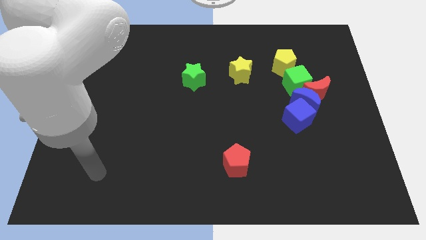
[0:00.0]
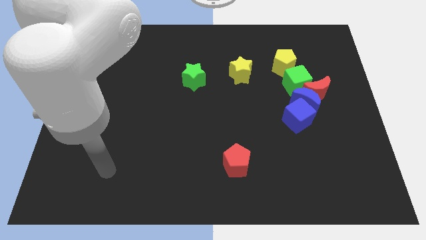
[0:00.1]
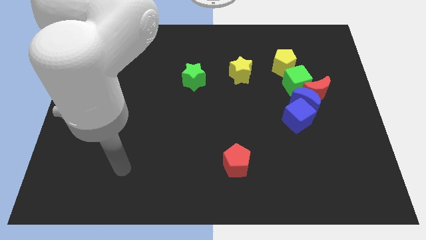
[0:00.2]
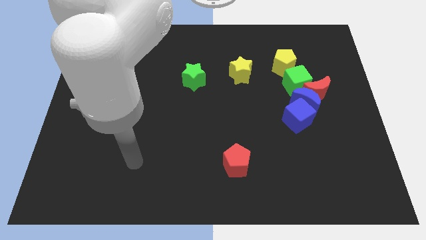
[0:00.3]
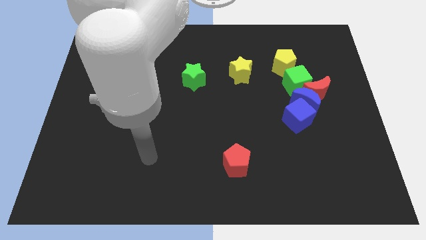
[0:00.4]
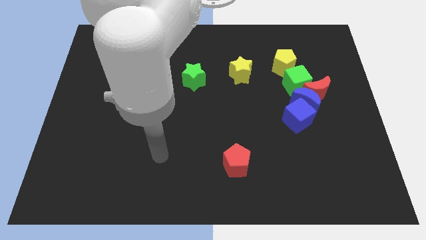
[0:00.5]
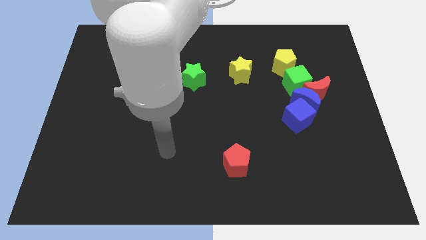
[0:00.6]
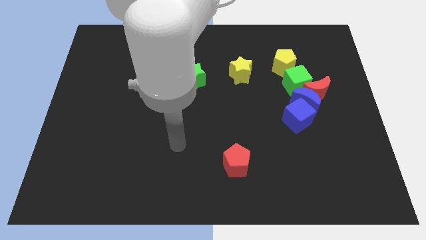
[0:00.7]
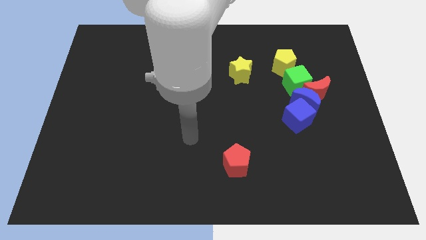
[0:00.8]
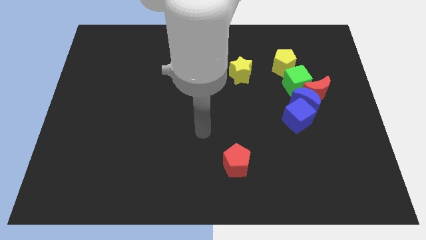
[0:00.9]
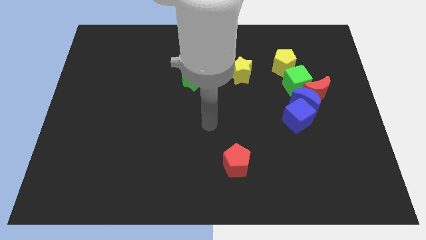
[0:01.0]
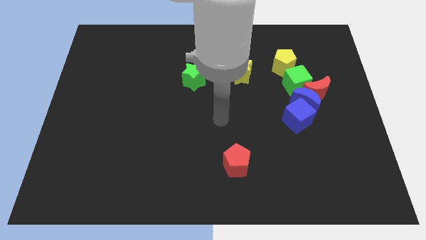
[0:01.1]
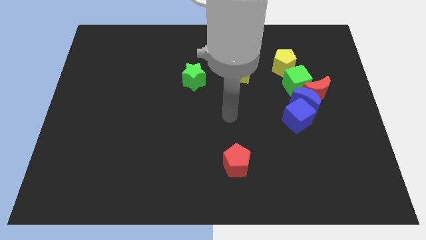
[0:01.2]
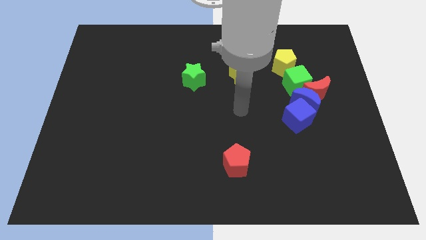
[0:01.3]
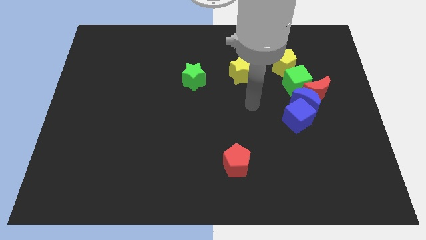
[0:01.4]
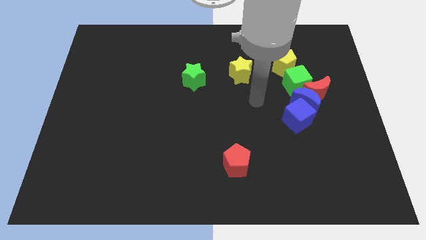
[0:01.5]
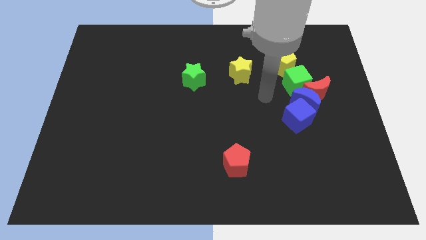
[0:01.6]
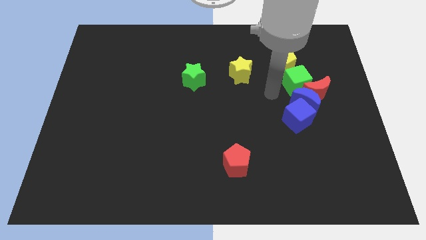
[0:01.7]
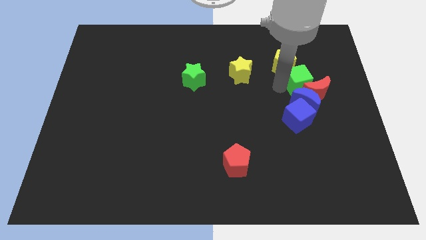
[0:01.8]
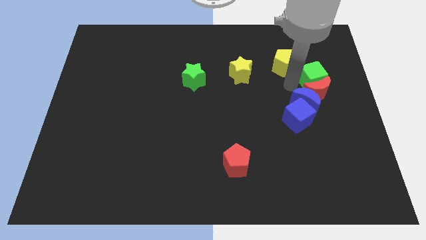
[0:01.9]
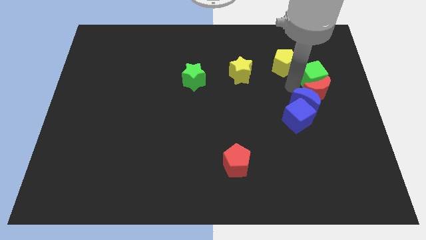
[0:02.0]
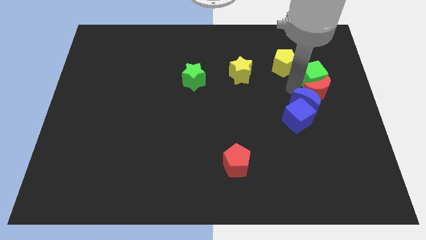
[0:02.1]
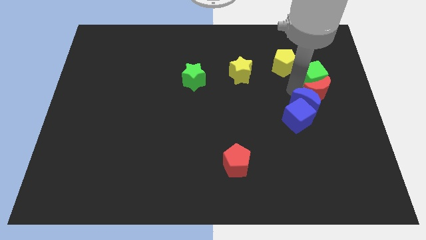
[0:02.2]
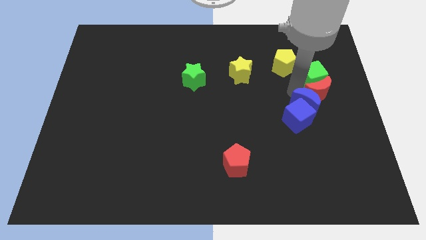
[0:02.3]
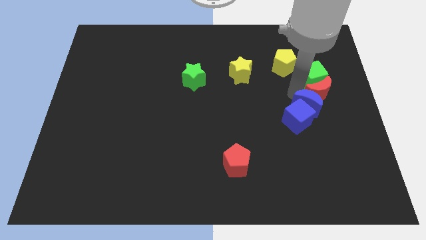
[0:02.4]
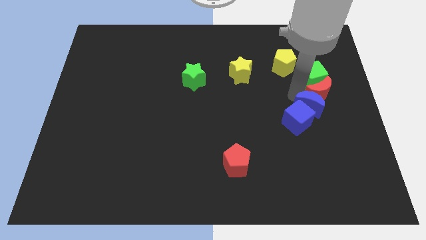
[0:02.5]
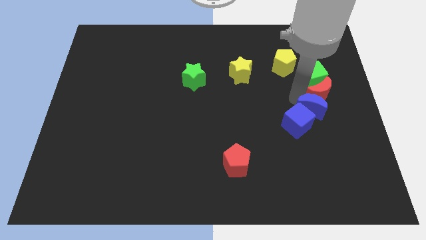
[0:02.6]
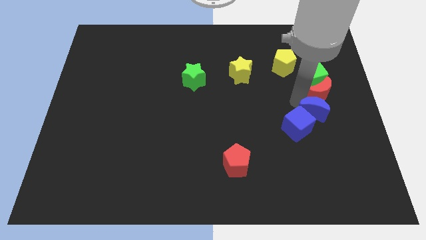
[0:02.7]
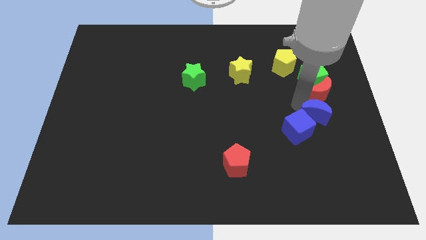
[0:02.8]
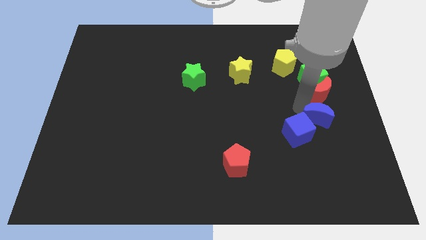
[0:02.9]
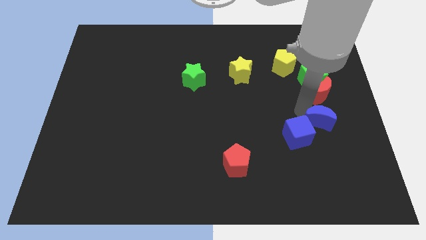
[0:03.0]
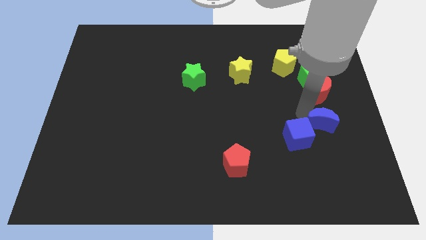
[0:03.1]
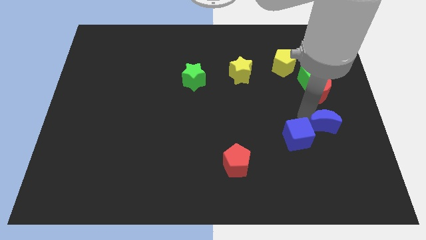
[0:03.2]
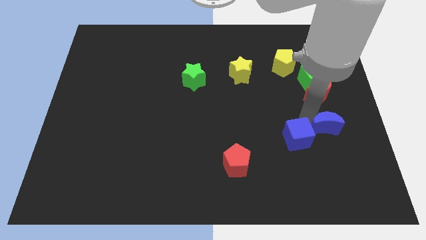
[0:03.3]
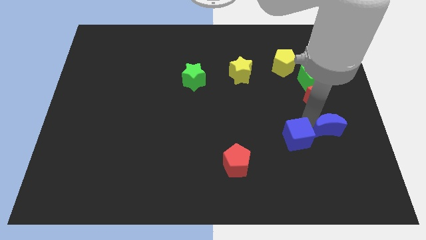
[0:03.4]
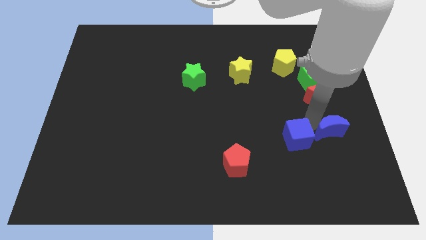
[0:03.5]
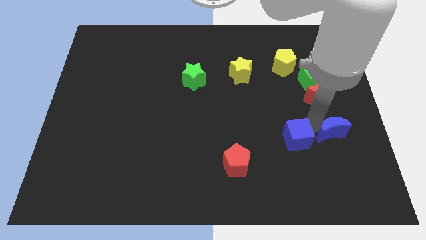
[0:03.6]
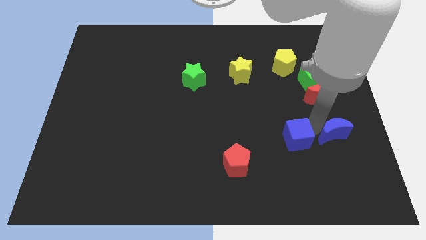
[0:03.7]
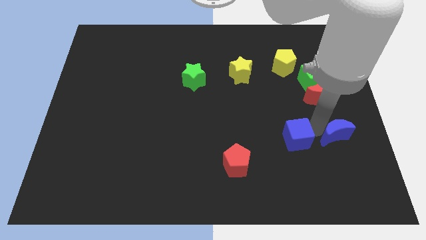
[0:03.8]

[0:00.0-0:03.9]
pull the blue moon apart from the red moon, blue cube, and green cube

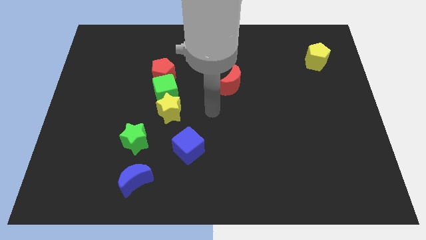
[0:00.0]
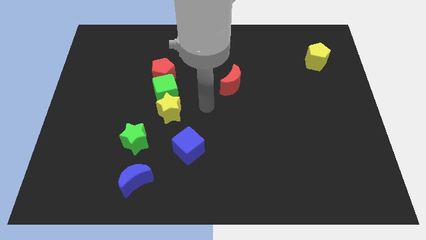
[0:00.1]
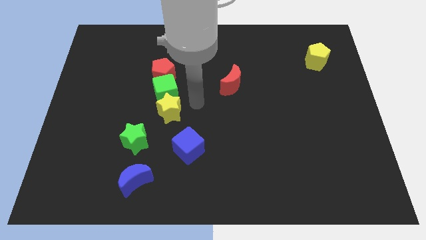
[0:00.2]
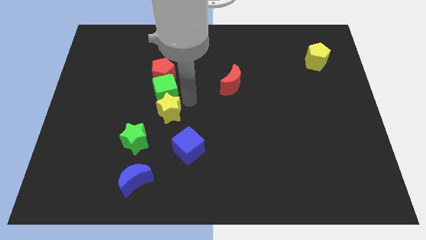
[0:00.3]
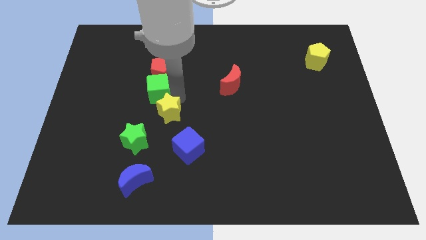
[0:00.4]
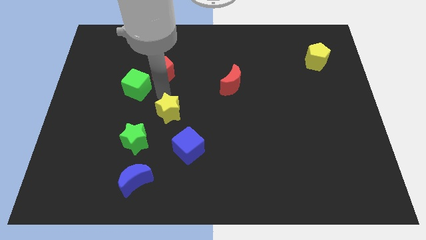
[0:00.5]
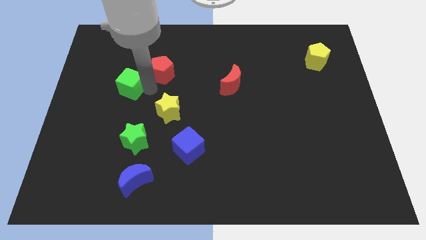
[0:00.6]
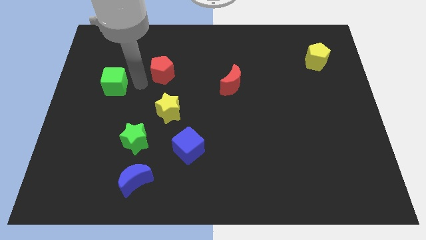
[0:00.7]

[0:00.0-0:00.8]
move the red pentagon away from the green cube

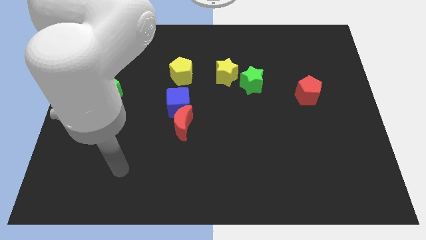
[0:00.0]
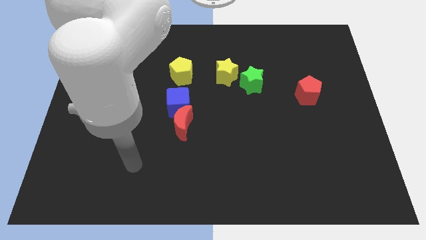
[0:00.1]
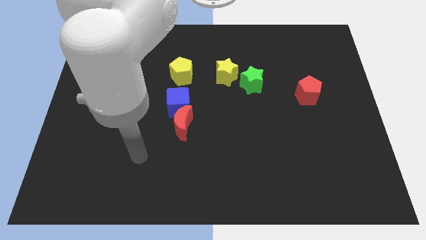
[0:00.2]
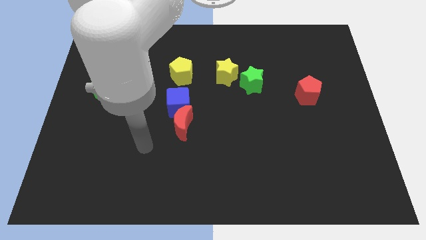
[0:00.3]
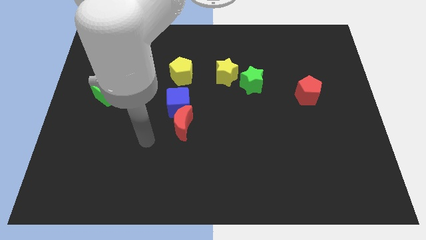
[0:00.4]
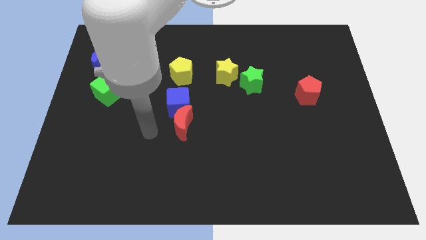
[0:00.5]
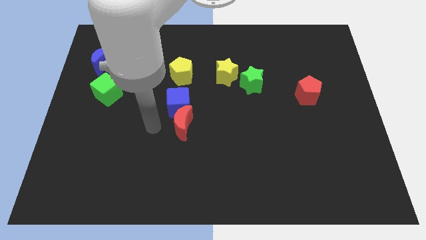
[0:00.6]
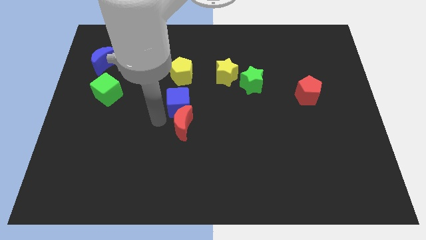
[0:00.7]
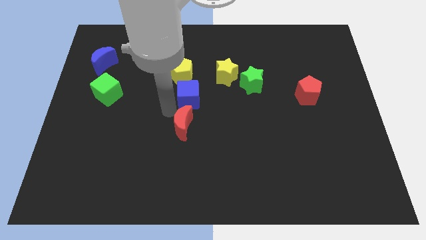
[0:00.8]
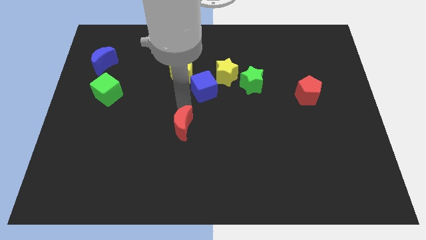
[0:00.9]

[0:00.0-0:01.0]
pull the red moon apart from the blue cube

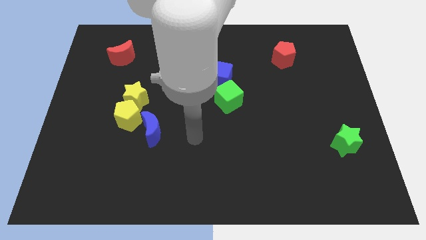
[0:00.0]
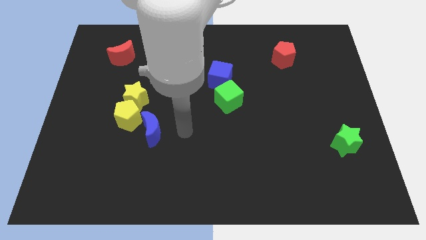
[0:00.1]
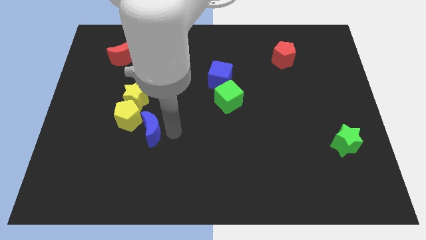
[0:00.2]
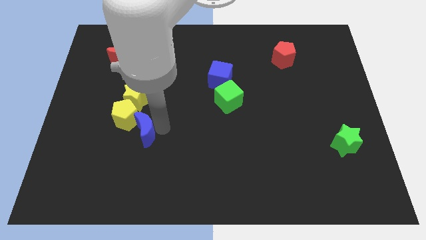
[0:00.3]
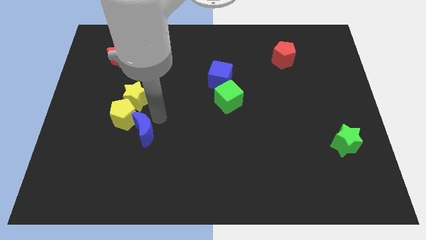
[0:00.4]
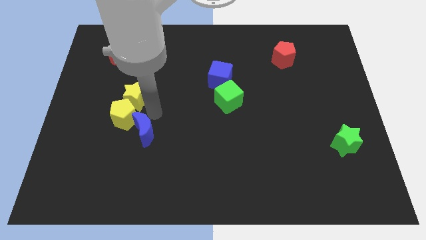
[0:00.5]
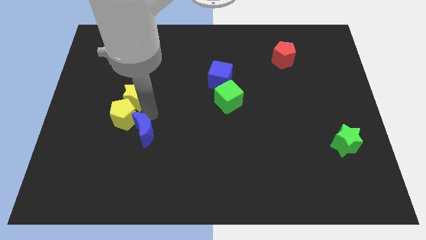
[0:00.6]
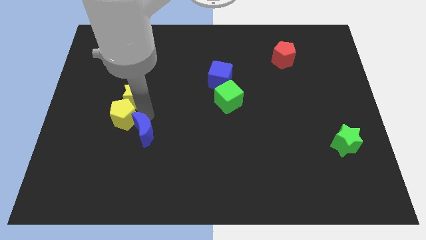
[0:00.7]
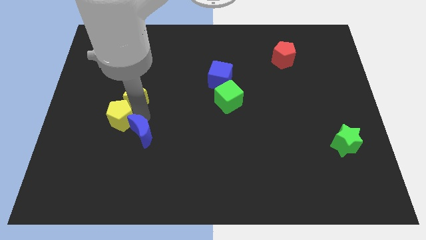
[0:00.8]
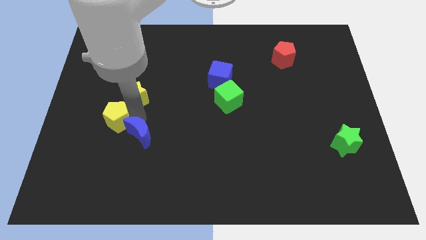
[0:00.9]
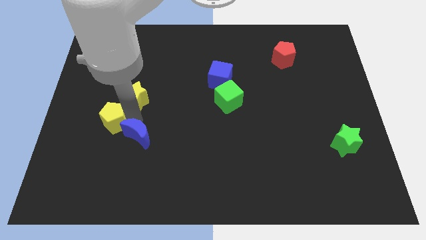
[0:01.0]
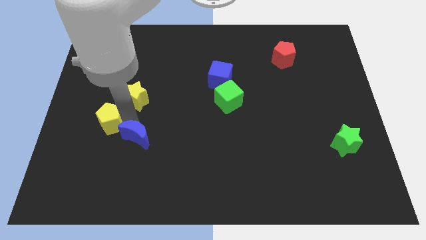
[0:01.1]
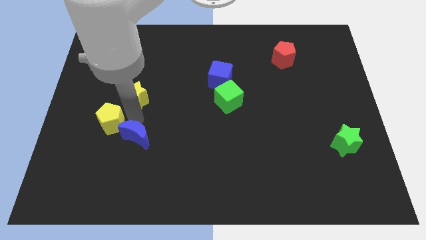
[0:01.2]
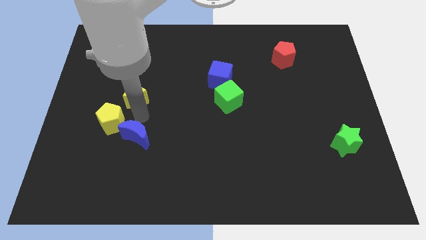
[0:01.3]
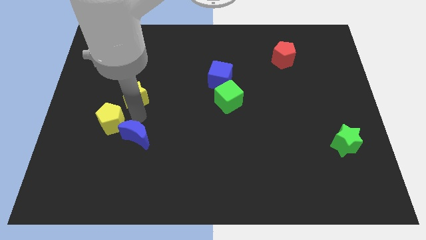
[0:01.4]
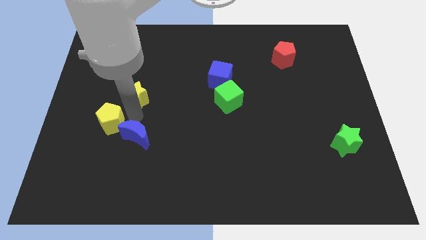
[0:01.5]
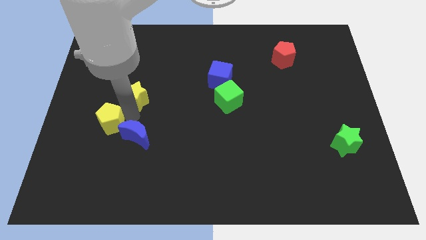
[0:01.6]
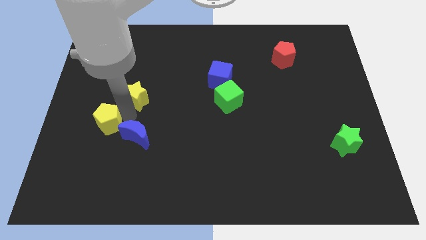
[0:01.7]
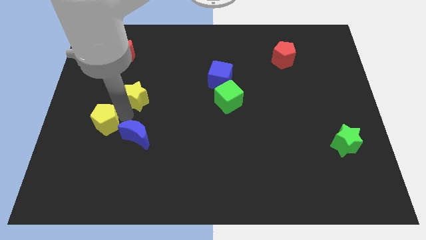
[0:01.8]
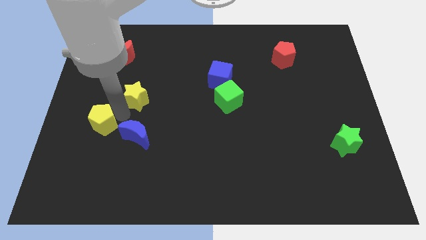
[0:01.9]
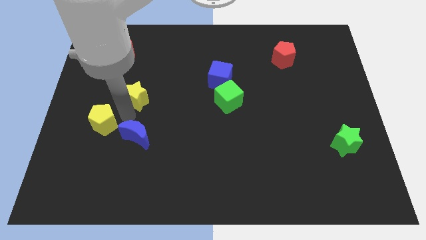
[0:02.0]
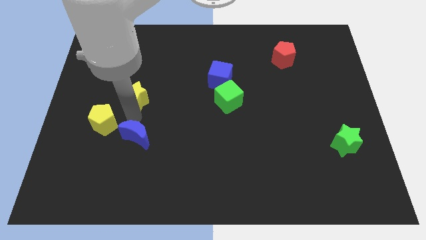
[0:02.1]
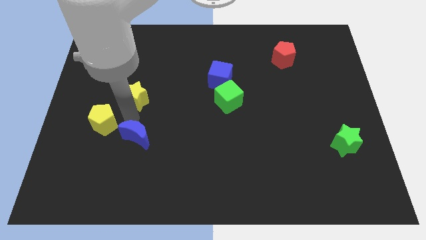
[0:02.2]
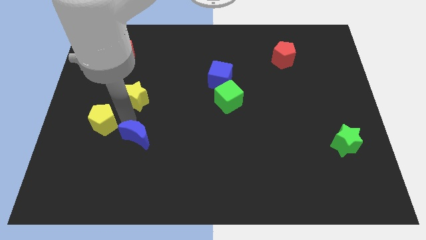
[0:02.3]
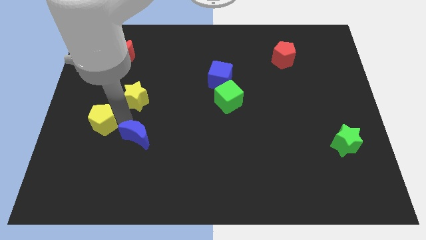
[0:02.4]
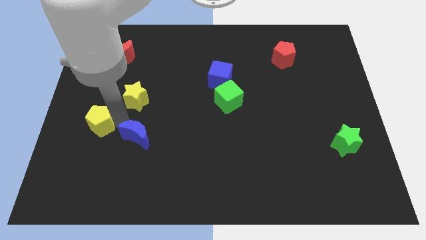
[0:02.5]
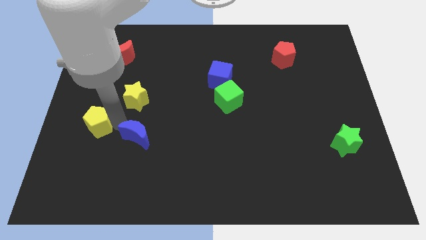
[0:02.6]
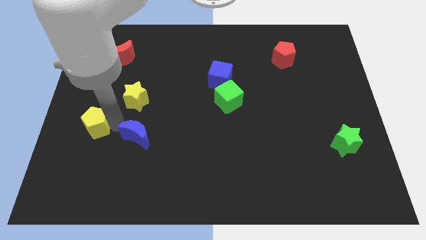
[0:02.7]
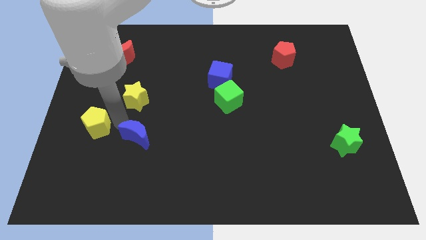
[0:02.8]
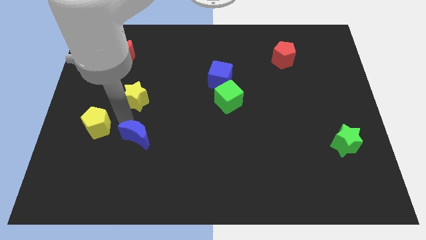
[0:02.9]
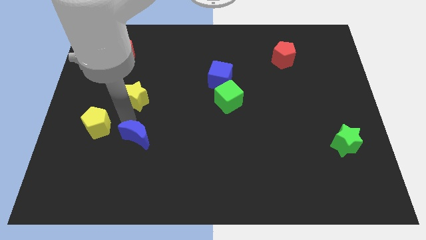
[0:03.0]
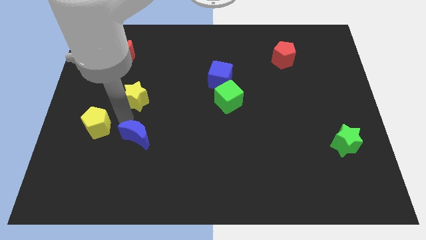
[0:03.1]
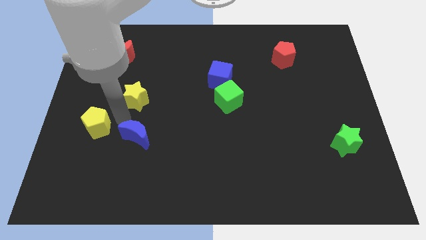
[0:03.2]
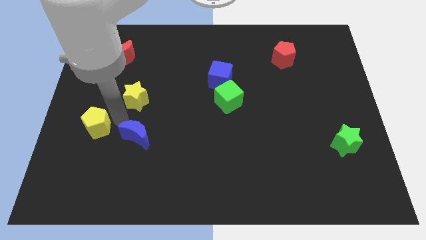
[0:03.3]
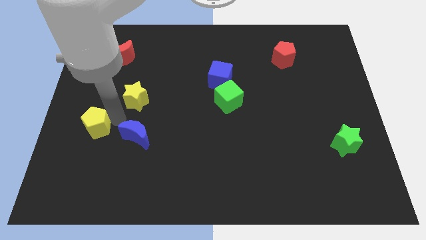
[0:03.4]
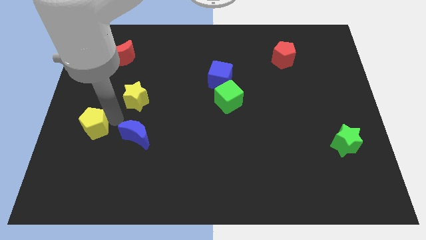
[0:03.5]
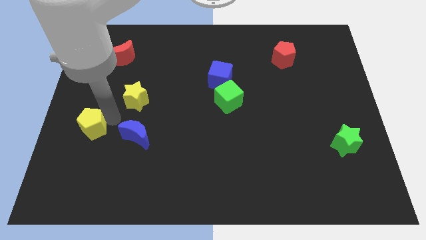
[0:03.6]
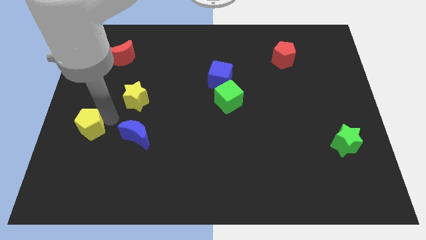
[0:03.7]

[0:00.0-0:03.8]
separate the yellow pentagon from the yellow star and blue moon
